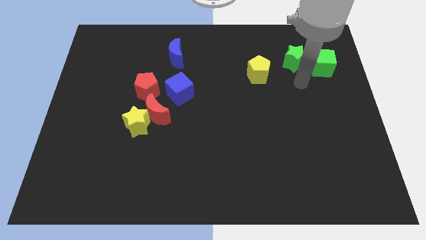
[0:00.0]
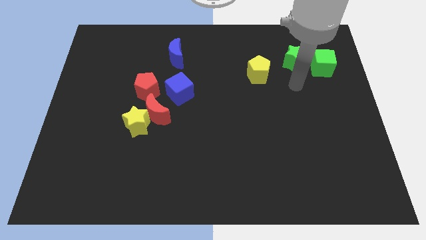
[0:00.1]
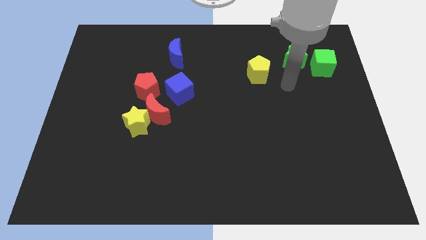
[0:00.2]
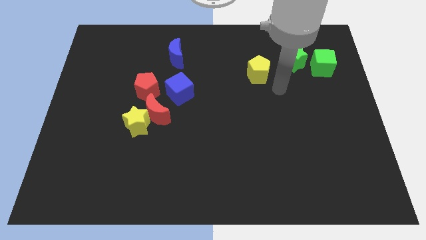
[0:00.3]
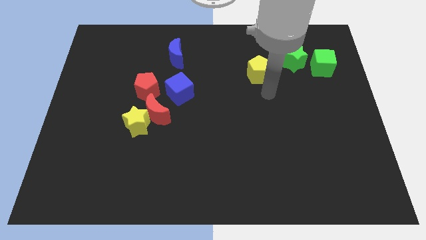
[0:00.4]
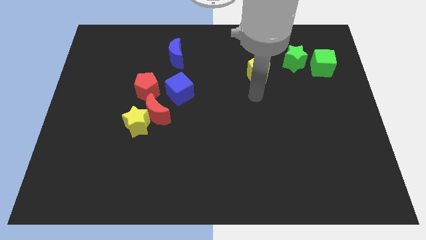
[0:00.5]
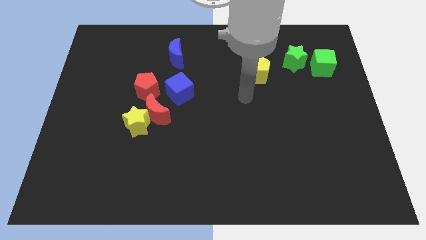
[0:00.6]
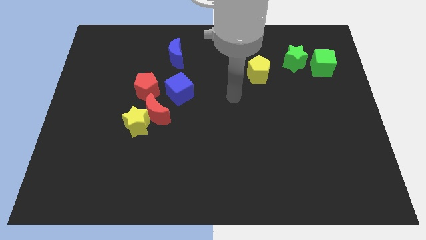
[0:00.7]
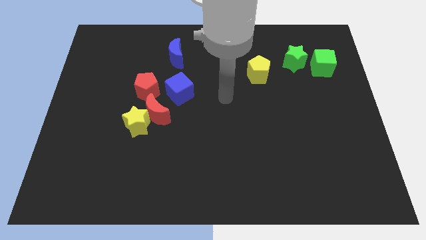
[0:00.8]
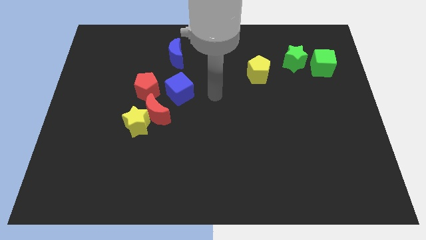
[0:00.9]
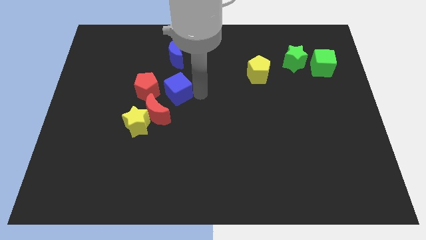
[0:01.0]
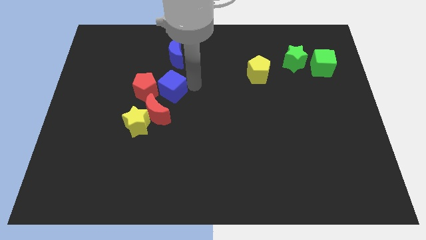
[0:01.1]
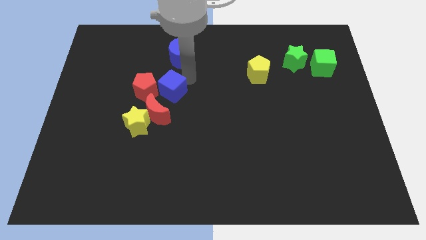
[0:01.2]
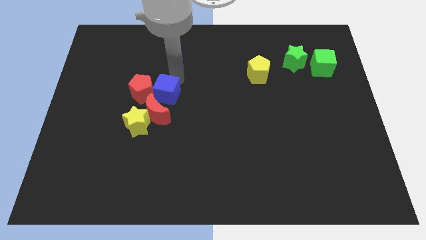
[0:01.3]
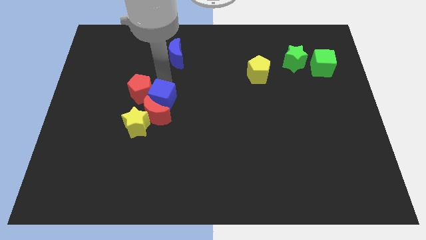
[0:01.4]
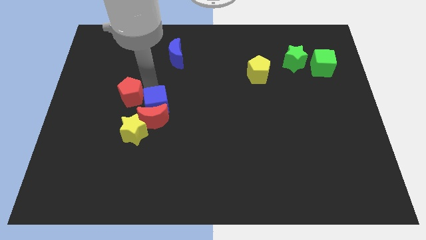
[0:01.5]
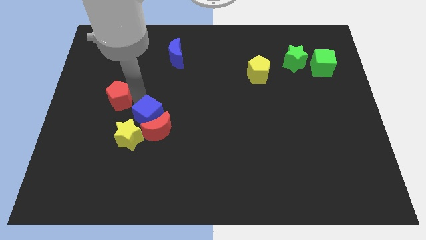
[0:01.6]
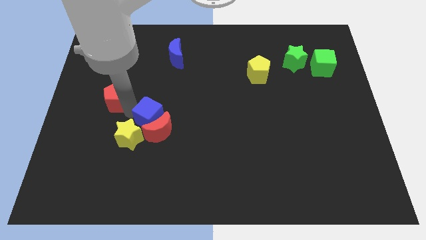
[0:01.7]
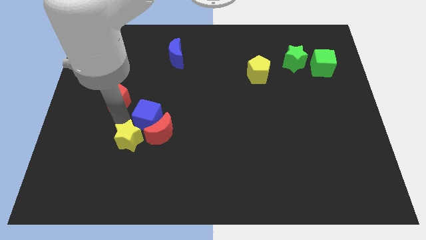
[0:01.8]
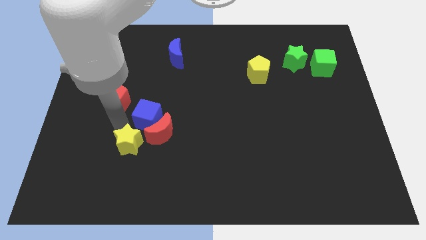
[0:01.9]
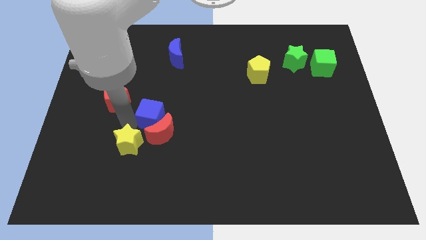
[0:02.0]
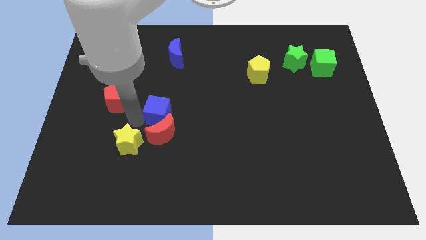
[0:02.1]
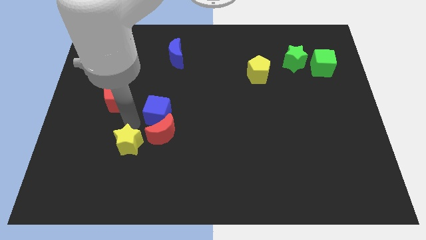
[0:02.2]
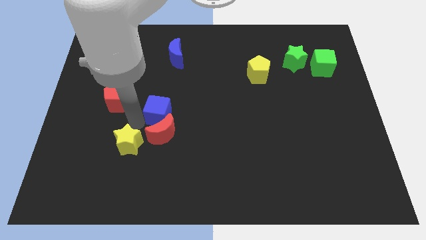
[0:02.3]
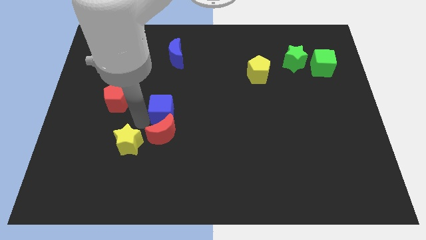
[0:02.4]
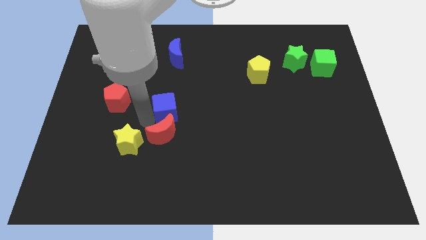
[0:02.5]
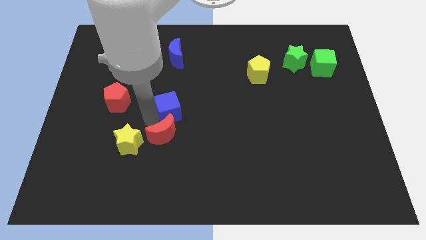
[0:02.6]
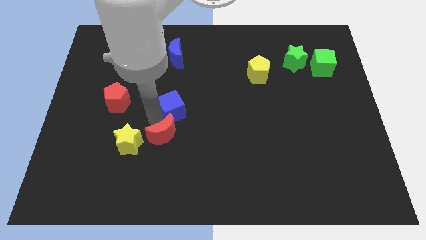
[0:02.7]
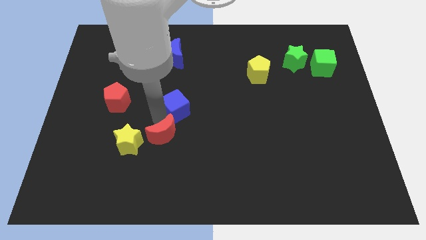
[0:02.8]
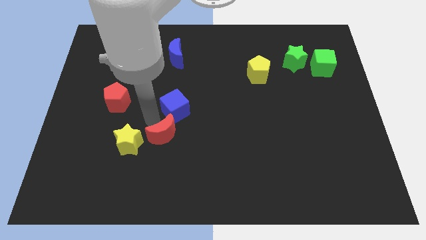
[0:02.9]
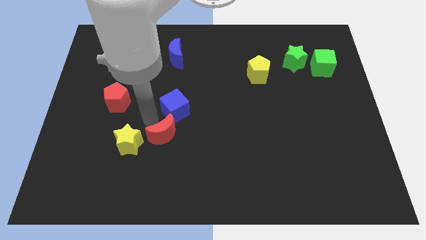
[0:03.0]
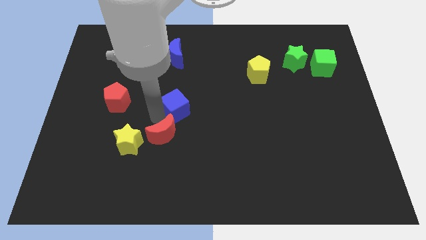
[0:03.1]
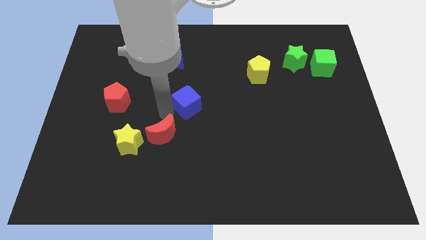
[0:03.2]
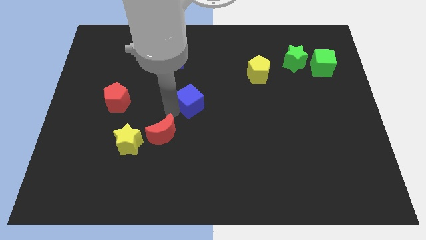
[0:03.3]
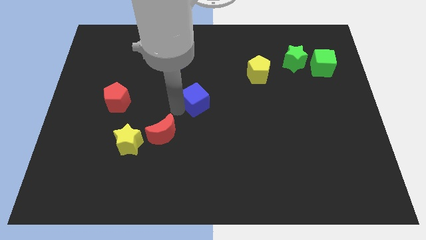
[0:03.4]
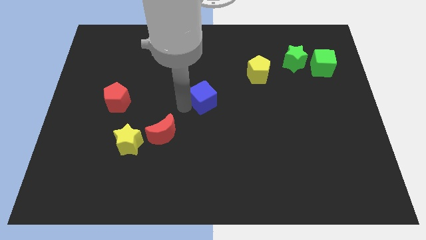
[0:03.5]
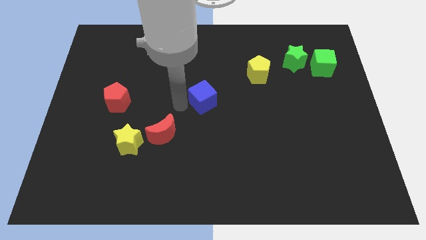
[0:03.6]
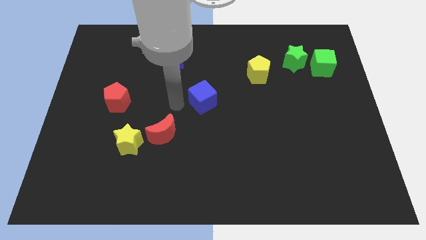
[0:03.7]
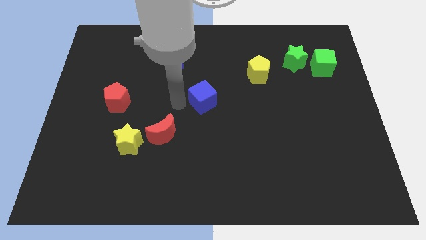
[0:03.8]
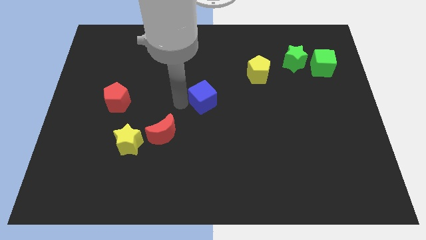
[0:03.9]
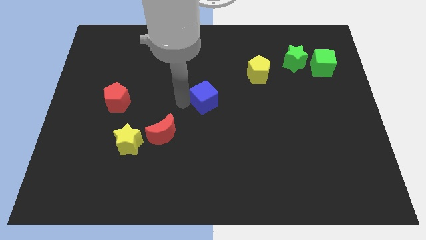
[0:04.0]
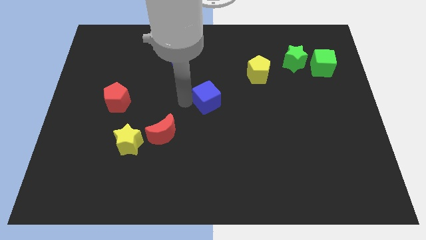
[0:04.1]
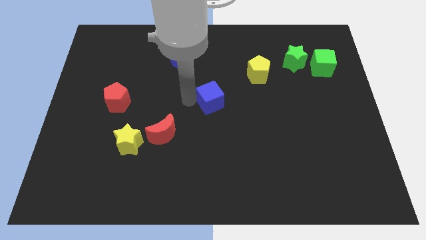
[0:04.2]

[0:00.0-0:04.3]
push the blue cube slightly to the right

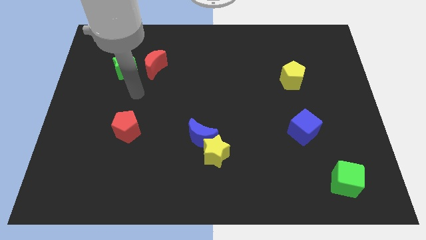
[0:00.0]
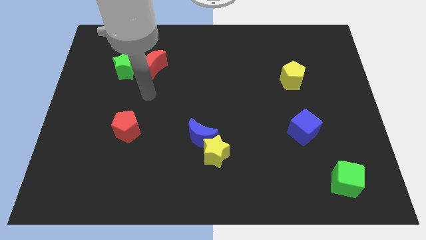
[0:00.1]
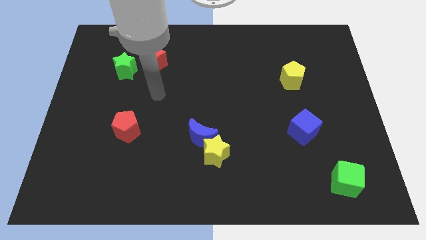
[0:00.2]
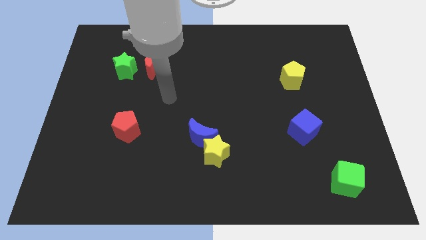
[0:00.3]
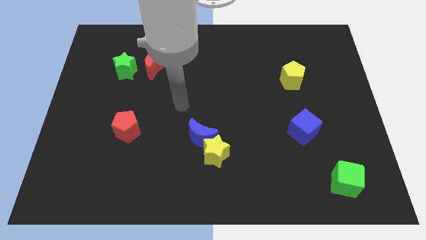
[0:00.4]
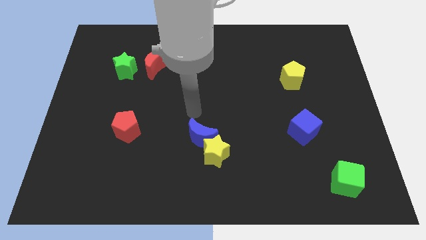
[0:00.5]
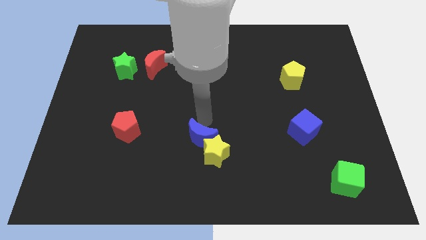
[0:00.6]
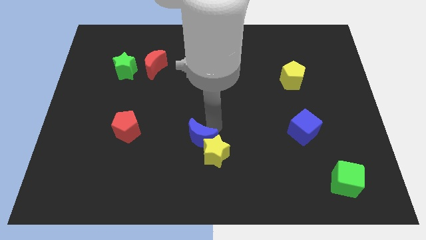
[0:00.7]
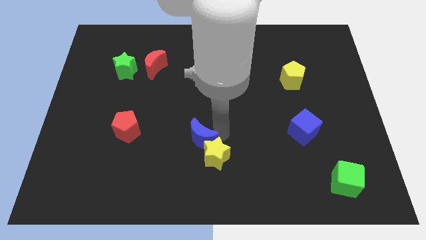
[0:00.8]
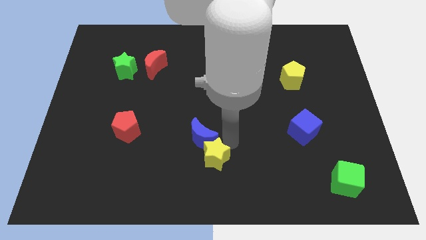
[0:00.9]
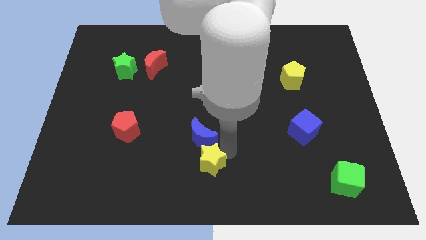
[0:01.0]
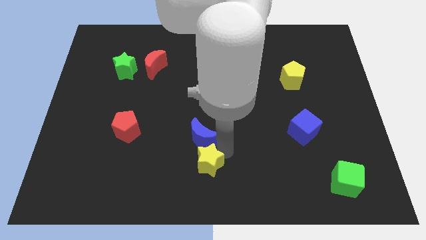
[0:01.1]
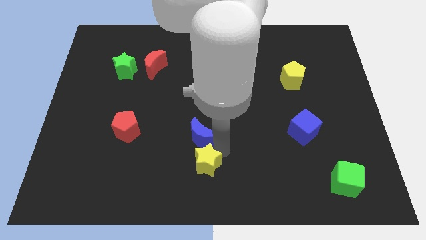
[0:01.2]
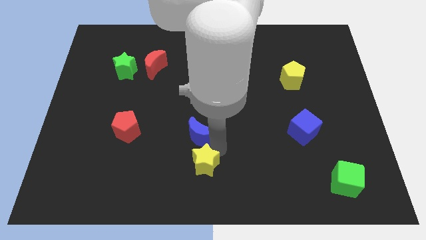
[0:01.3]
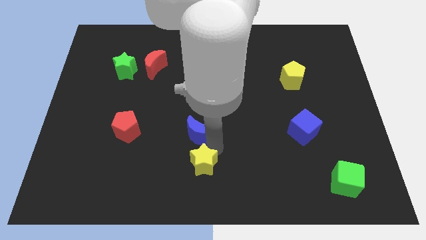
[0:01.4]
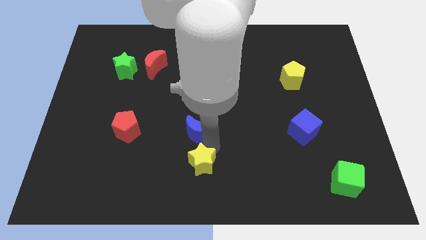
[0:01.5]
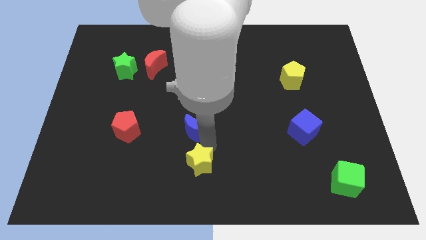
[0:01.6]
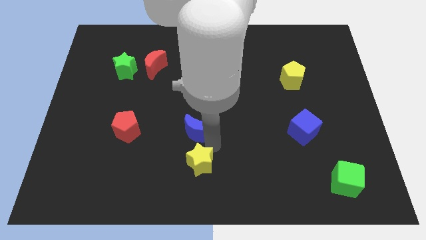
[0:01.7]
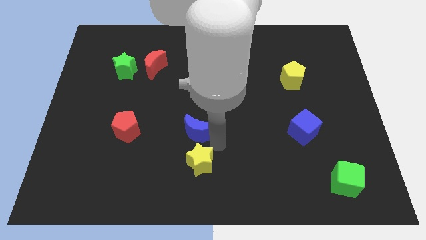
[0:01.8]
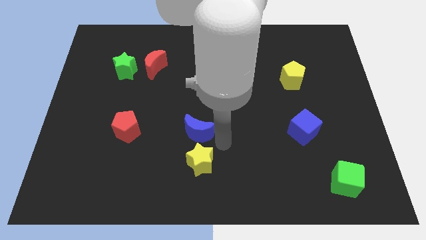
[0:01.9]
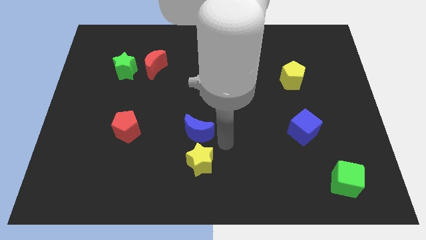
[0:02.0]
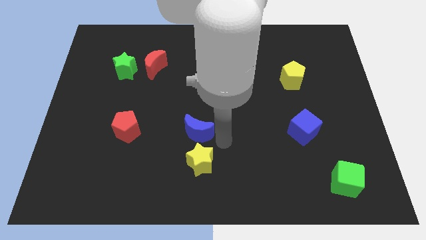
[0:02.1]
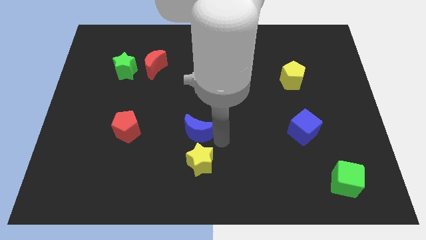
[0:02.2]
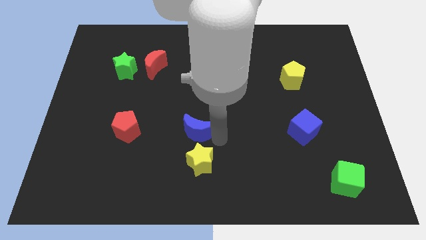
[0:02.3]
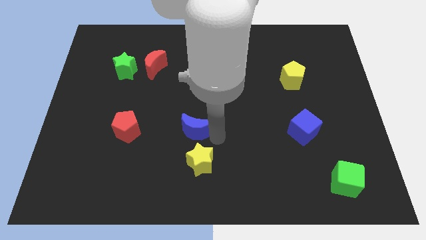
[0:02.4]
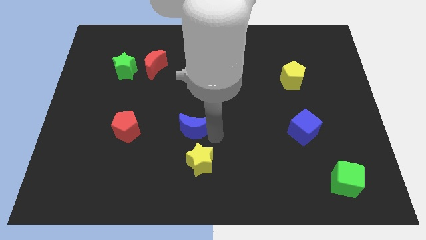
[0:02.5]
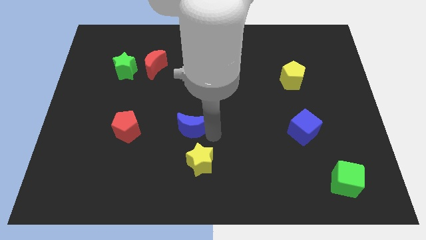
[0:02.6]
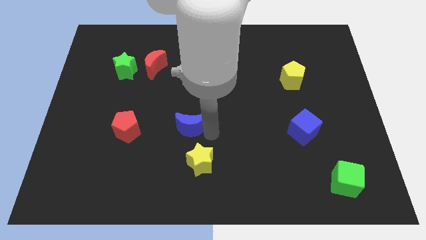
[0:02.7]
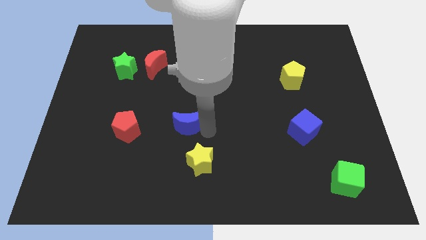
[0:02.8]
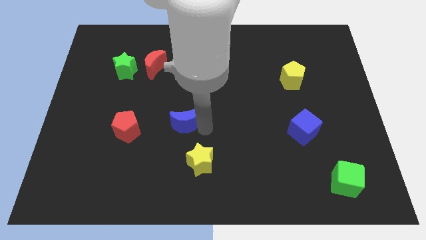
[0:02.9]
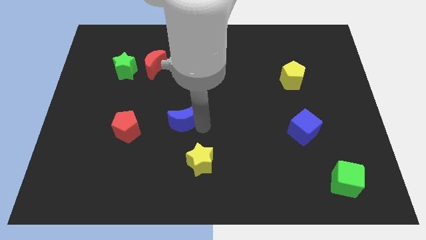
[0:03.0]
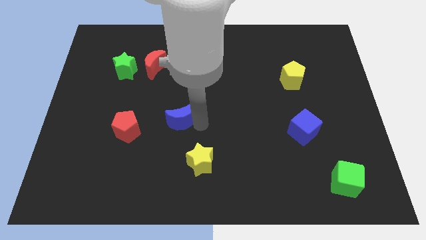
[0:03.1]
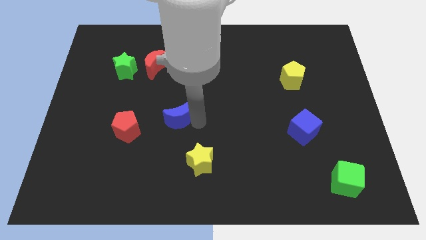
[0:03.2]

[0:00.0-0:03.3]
move the blue moon a bit up and to the left diagonally

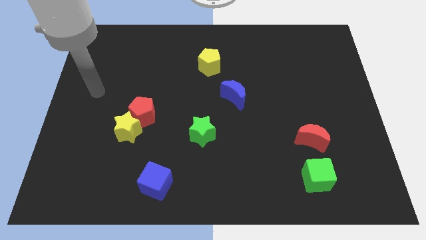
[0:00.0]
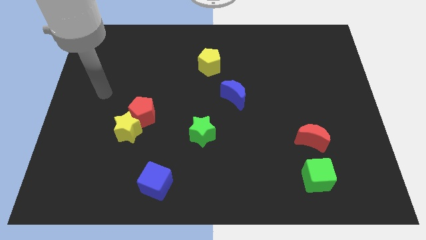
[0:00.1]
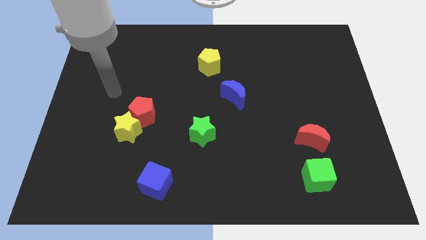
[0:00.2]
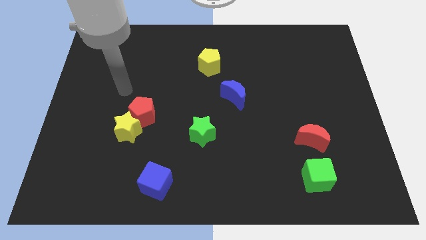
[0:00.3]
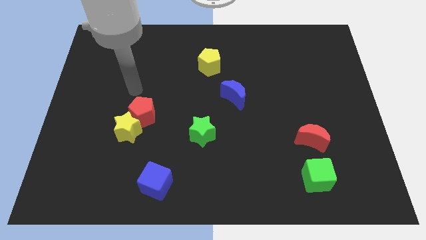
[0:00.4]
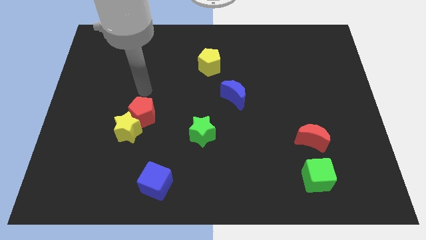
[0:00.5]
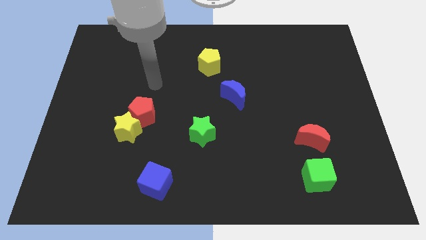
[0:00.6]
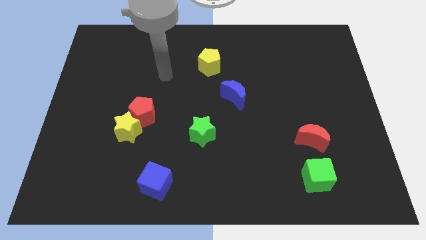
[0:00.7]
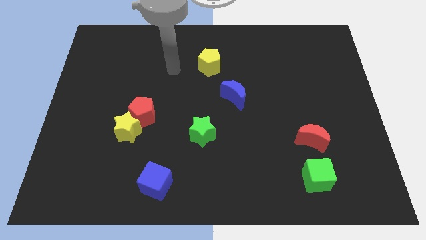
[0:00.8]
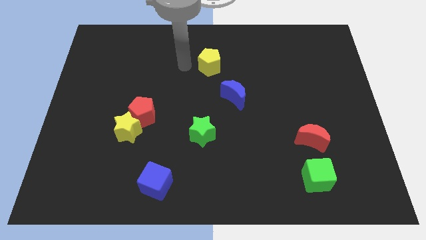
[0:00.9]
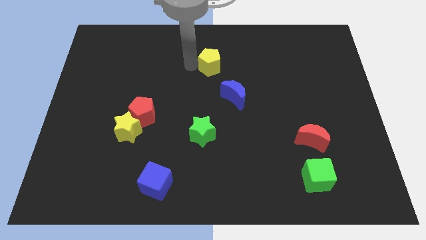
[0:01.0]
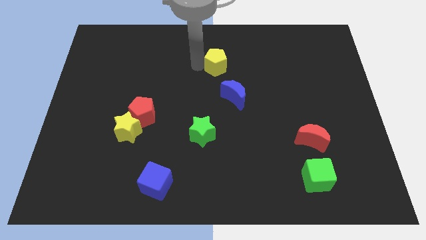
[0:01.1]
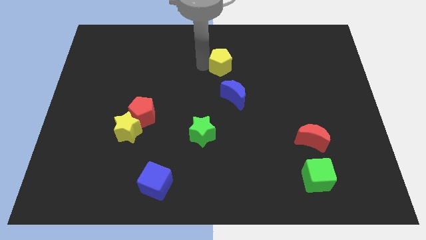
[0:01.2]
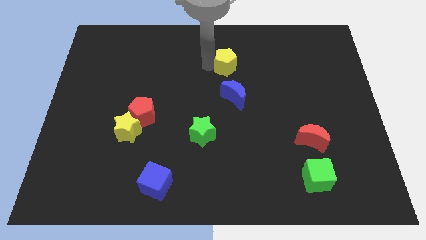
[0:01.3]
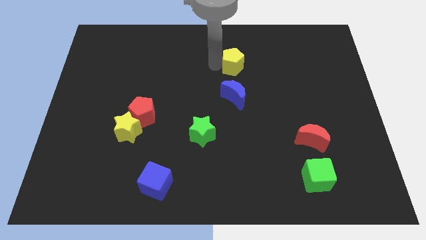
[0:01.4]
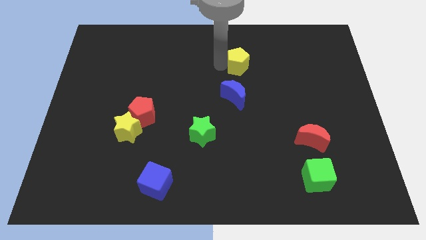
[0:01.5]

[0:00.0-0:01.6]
slide the yellow pentagon right slightly
